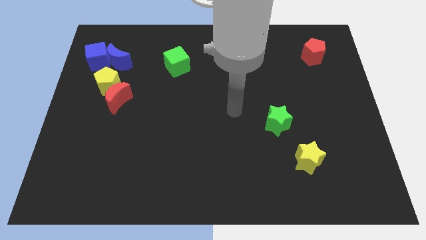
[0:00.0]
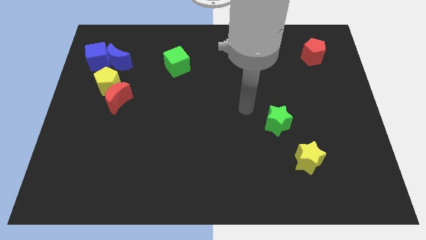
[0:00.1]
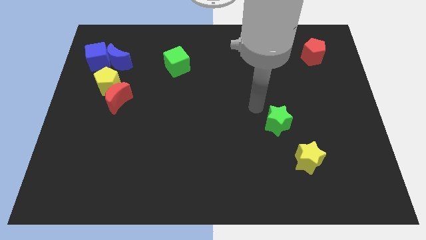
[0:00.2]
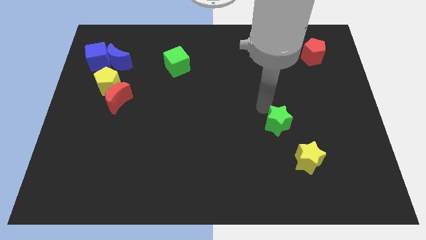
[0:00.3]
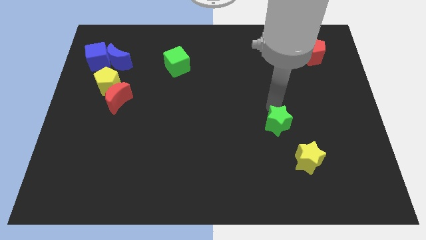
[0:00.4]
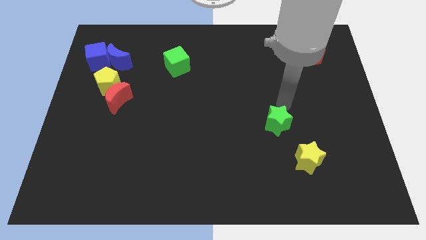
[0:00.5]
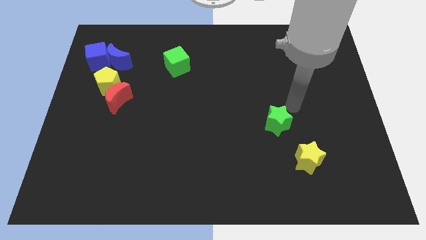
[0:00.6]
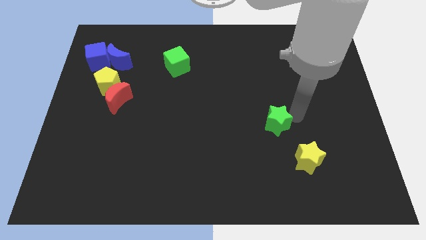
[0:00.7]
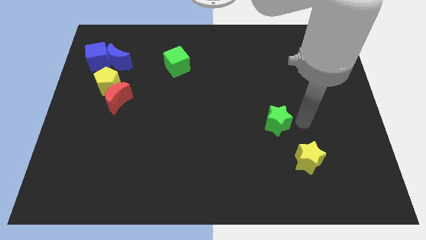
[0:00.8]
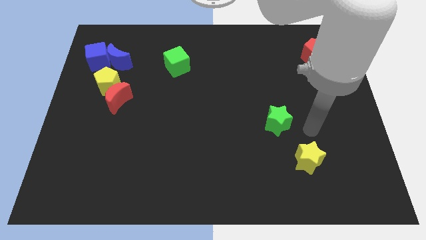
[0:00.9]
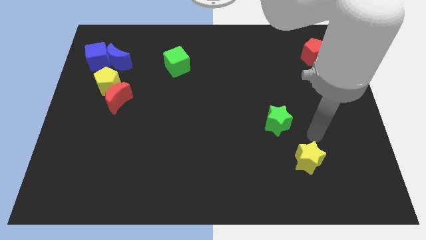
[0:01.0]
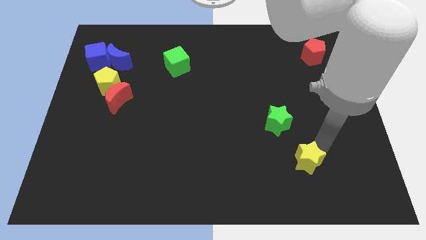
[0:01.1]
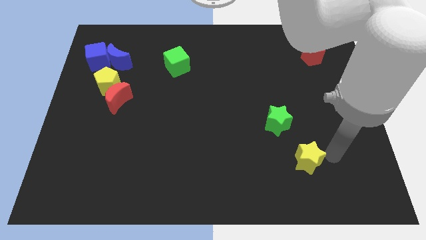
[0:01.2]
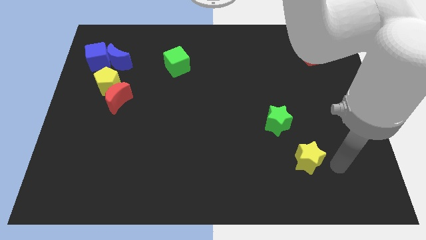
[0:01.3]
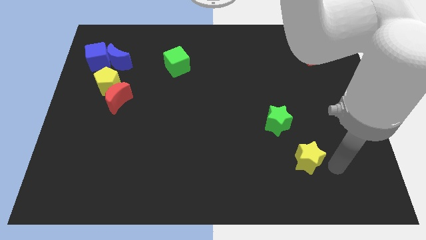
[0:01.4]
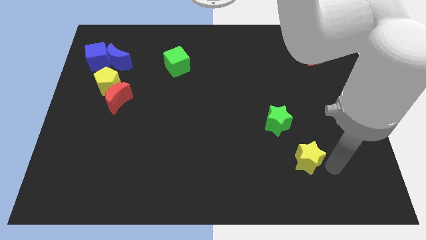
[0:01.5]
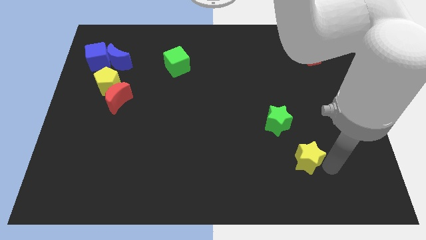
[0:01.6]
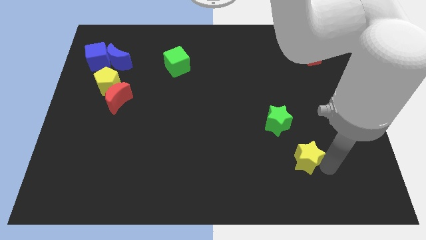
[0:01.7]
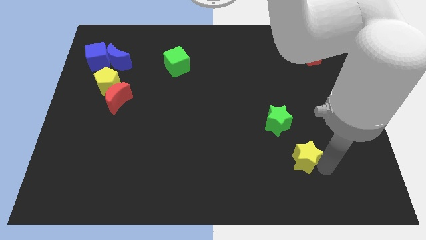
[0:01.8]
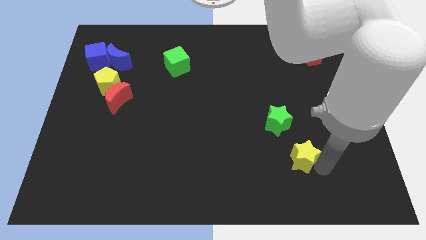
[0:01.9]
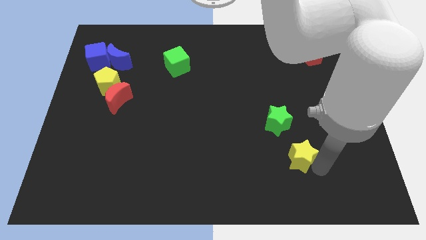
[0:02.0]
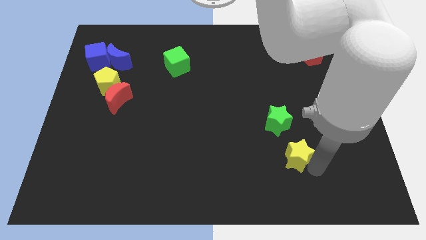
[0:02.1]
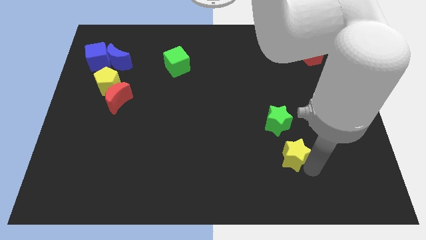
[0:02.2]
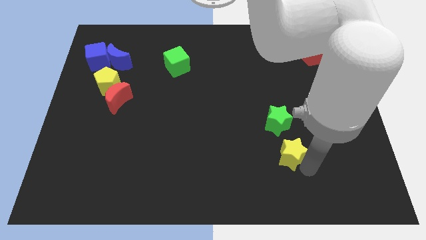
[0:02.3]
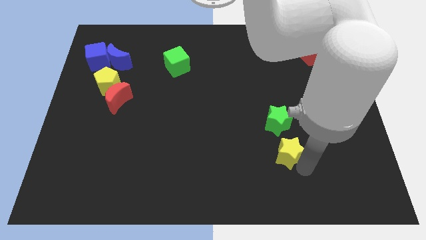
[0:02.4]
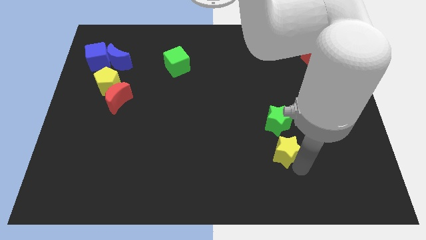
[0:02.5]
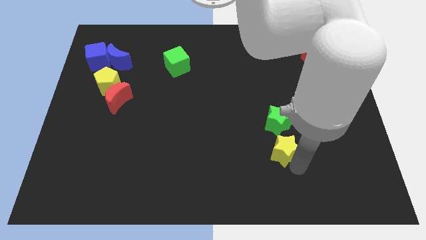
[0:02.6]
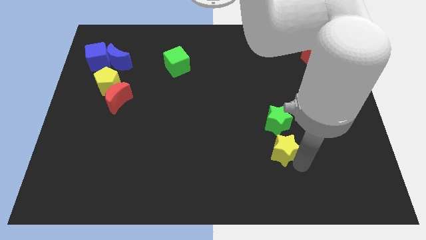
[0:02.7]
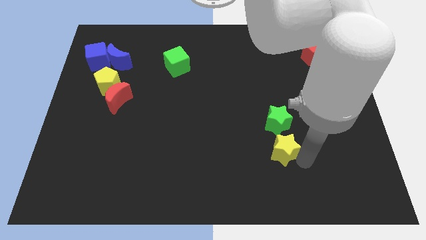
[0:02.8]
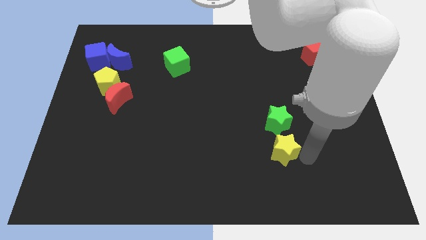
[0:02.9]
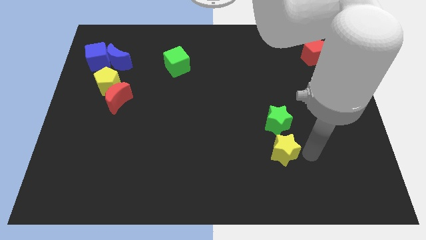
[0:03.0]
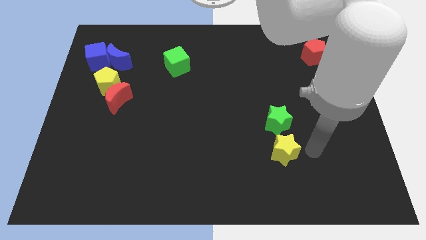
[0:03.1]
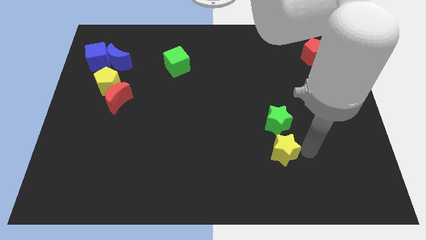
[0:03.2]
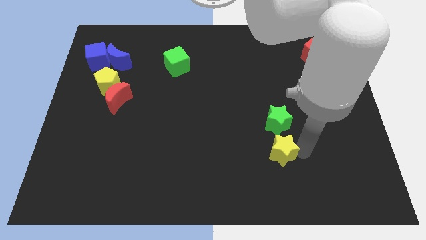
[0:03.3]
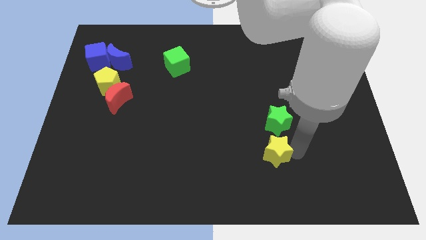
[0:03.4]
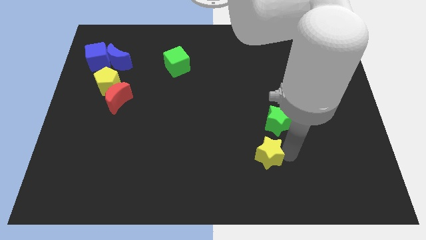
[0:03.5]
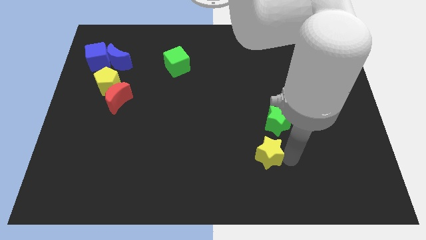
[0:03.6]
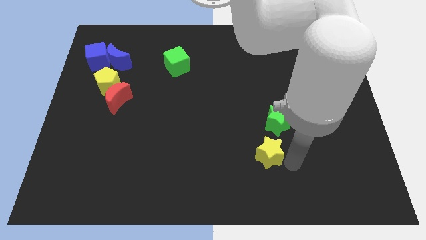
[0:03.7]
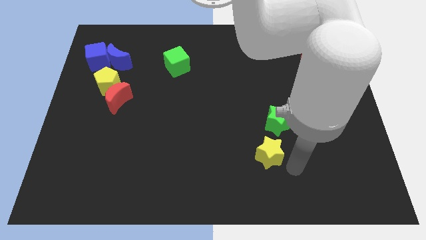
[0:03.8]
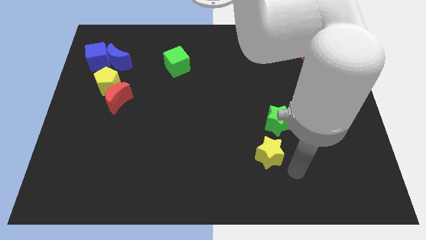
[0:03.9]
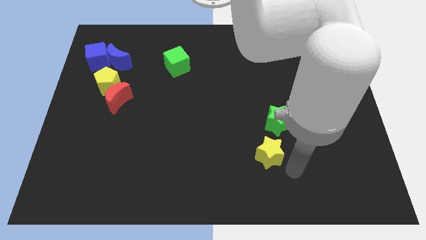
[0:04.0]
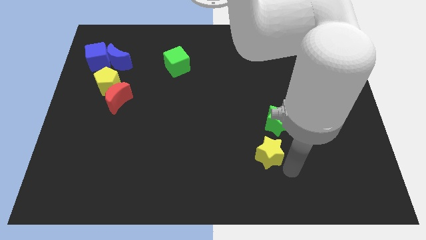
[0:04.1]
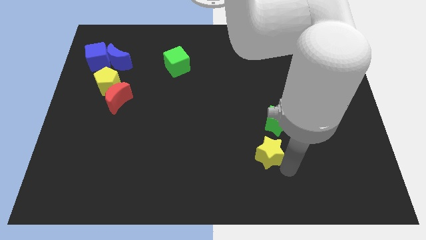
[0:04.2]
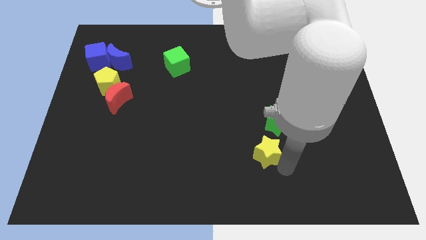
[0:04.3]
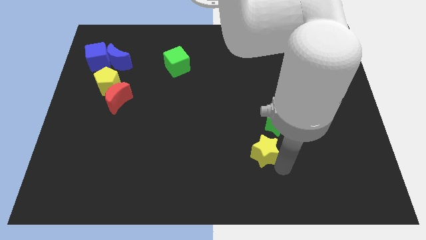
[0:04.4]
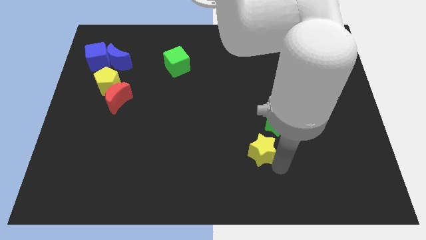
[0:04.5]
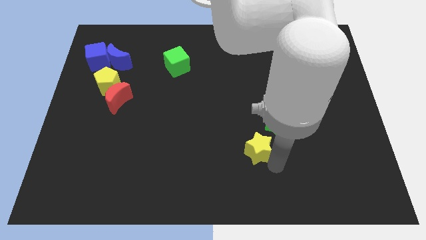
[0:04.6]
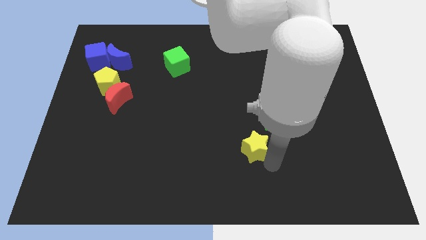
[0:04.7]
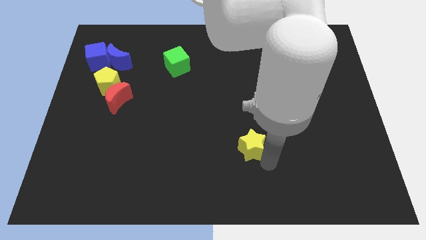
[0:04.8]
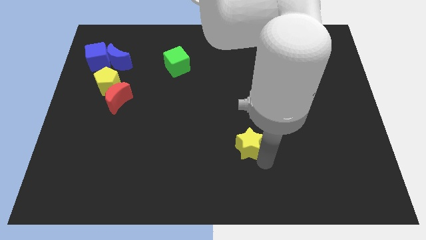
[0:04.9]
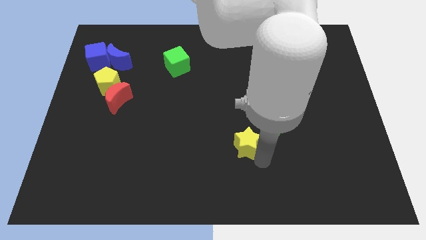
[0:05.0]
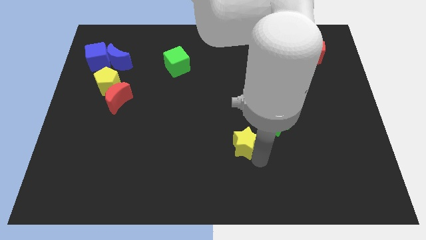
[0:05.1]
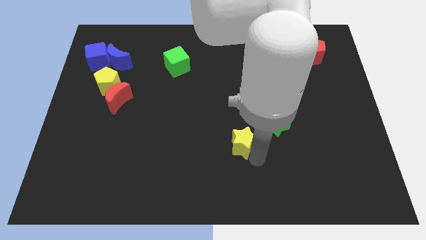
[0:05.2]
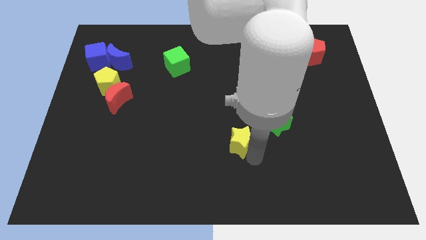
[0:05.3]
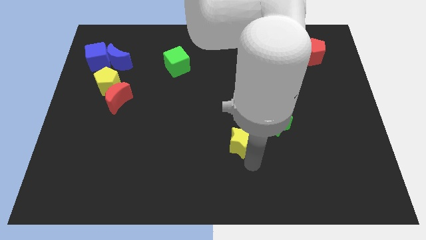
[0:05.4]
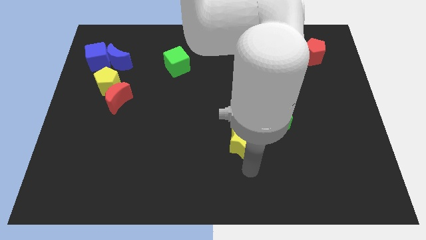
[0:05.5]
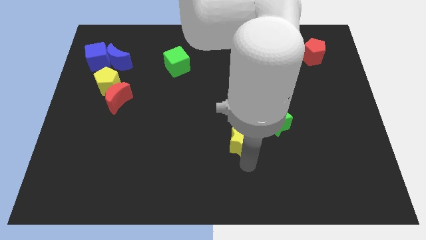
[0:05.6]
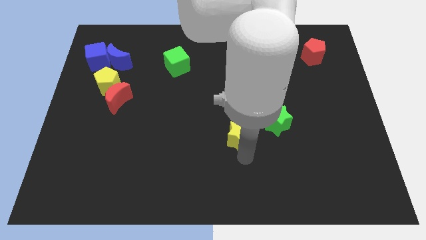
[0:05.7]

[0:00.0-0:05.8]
move the yellow star left of the green star

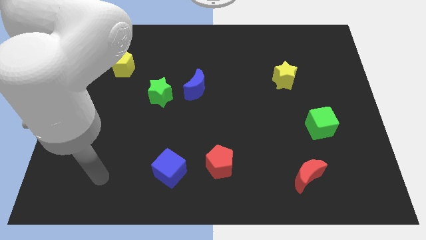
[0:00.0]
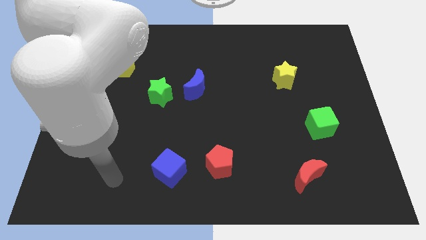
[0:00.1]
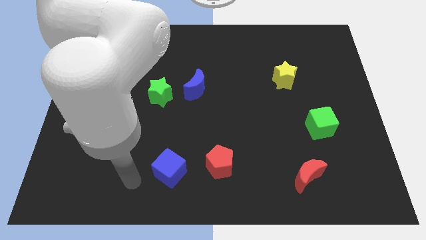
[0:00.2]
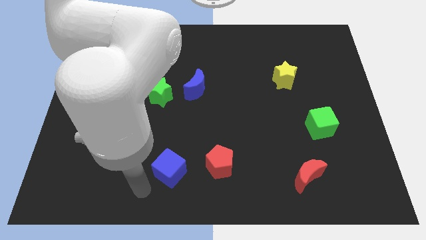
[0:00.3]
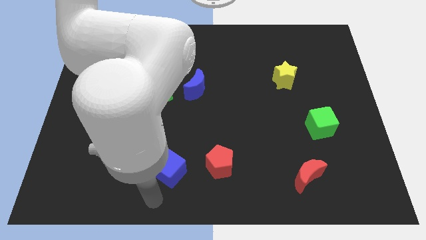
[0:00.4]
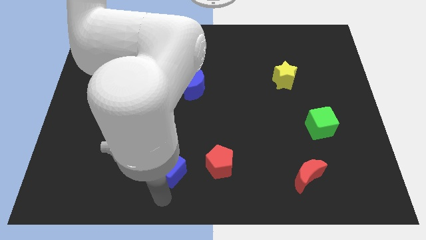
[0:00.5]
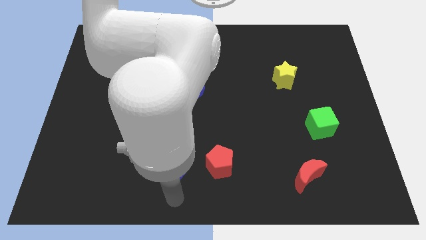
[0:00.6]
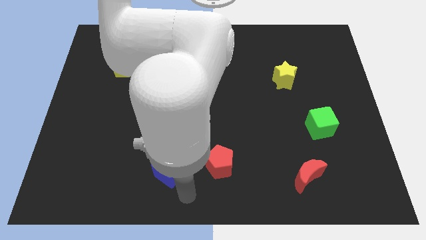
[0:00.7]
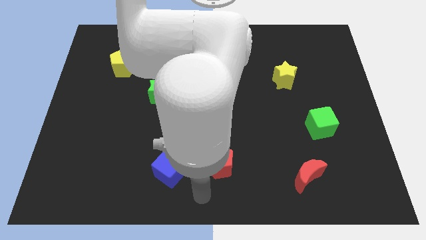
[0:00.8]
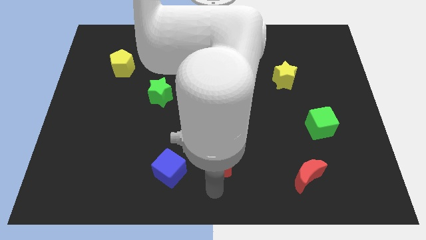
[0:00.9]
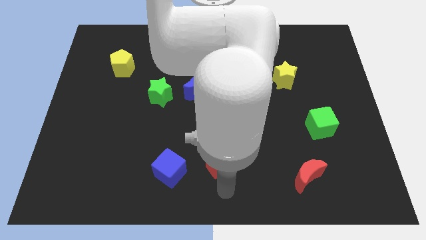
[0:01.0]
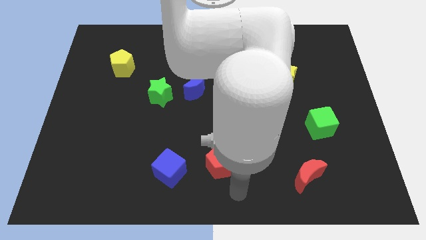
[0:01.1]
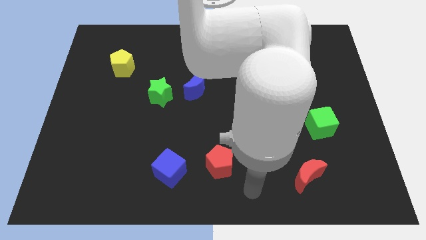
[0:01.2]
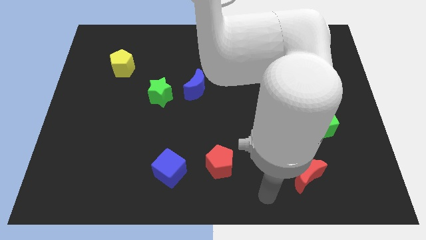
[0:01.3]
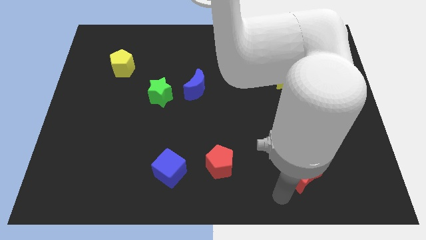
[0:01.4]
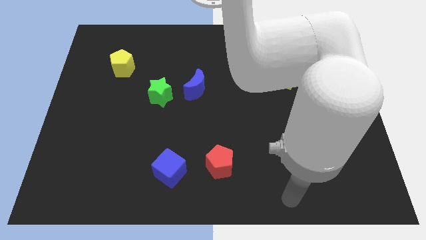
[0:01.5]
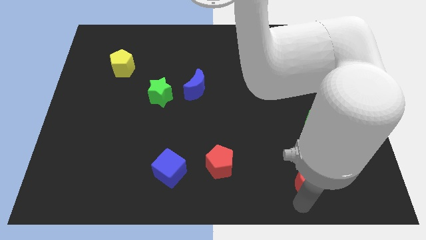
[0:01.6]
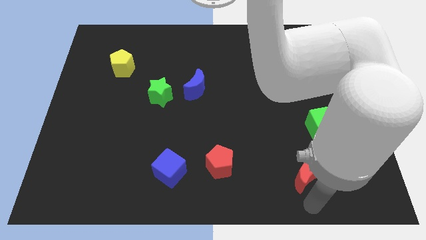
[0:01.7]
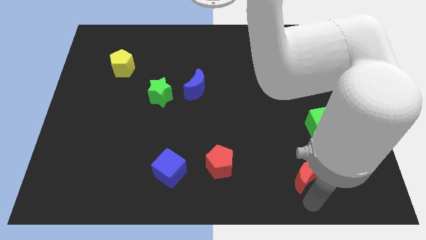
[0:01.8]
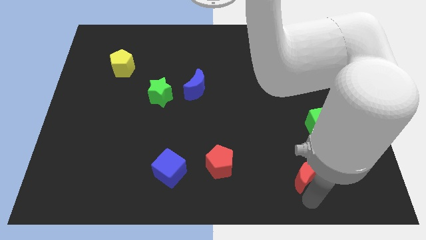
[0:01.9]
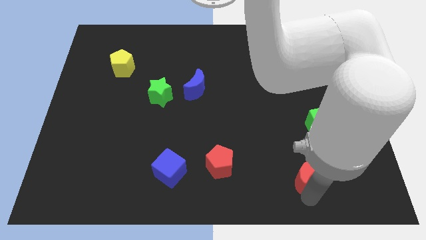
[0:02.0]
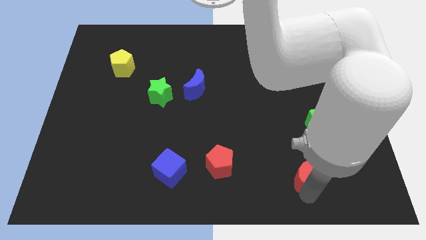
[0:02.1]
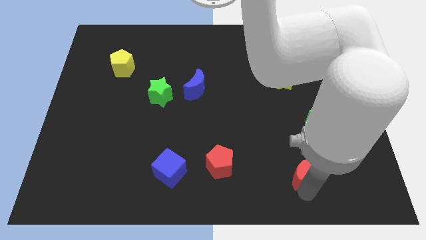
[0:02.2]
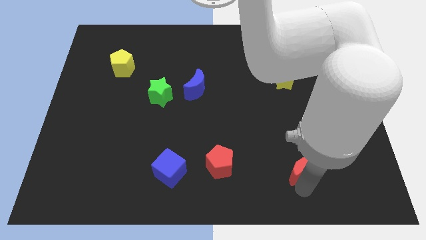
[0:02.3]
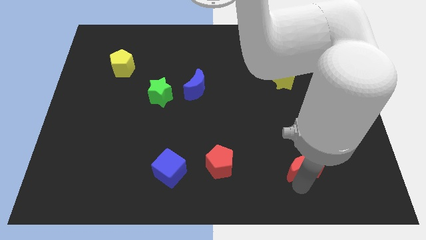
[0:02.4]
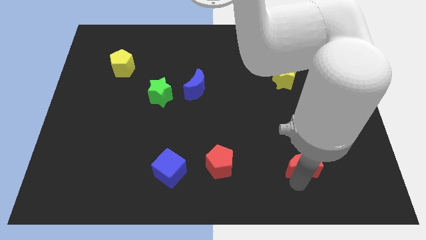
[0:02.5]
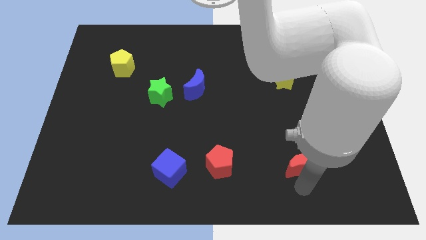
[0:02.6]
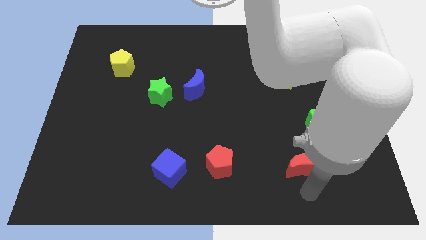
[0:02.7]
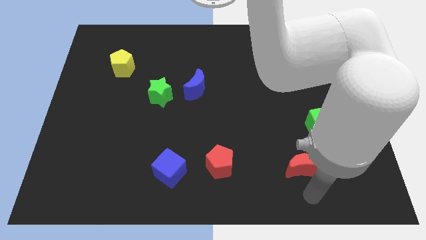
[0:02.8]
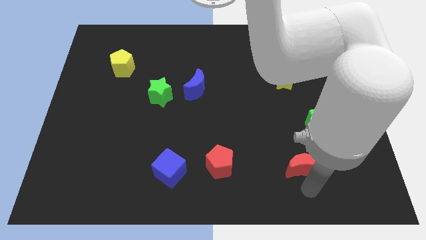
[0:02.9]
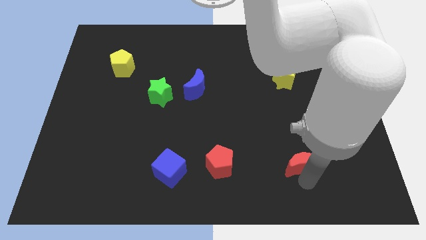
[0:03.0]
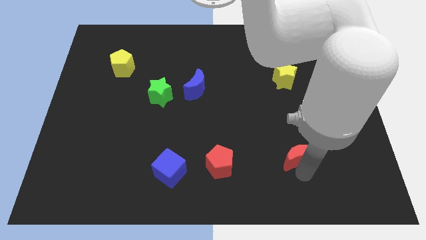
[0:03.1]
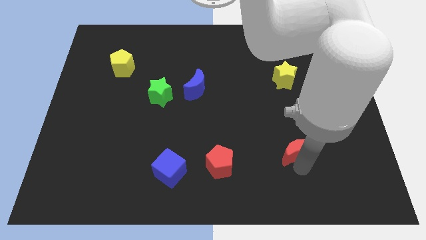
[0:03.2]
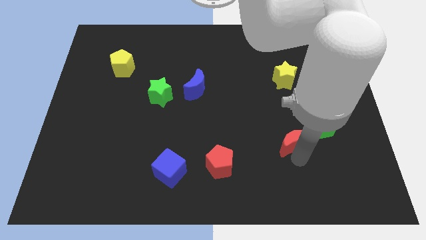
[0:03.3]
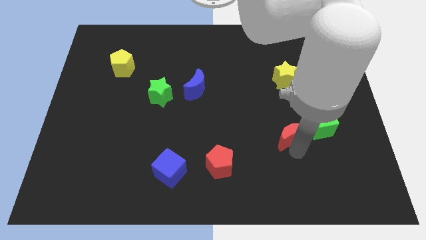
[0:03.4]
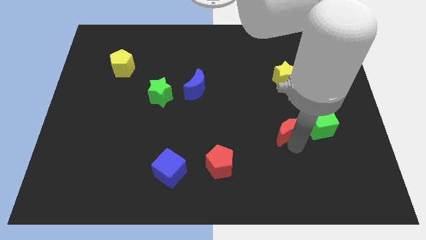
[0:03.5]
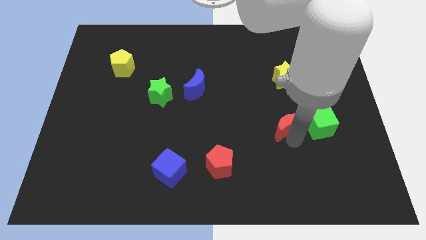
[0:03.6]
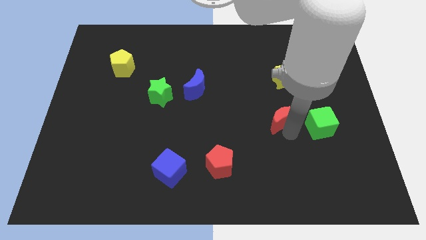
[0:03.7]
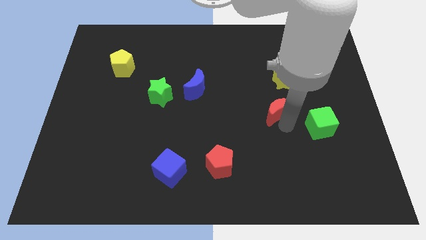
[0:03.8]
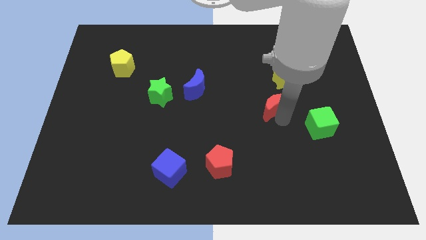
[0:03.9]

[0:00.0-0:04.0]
move the red moon diagonally down and to the left of the yellow star
